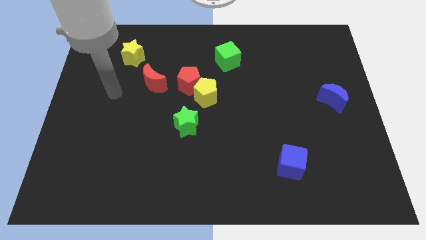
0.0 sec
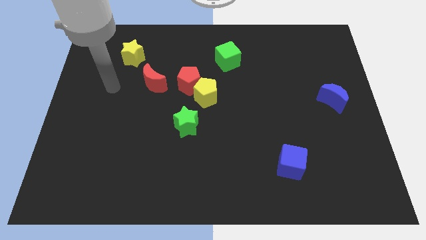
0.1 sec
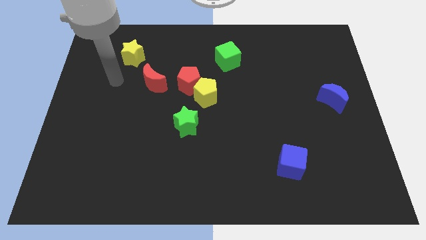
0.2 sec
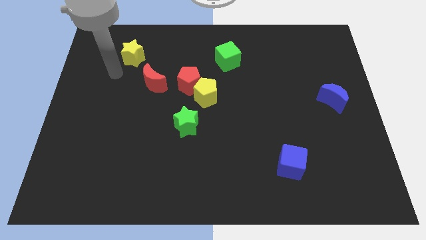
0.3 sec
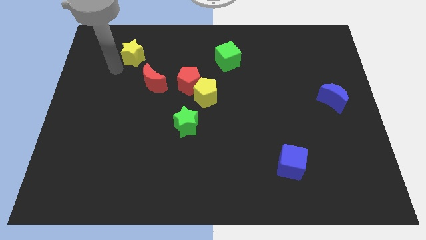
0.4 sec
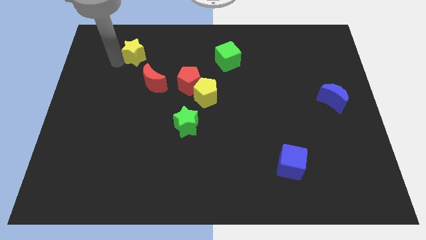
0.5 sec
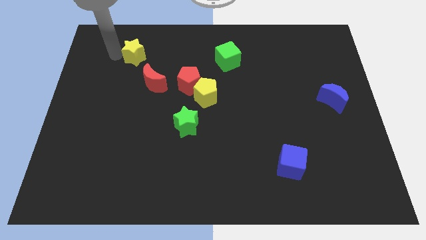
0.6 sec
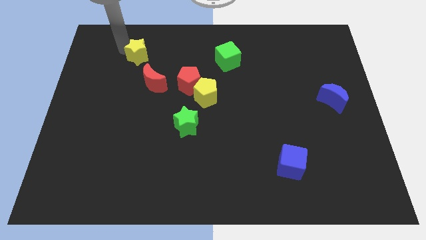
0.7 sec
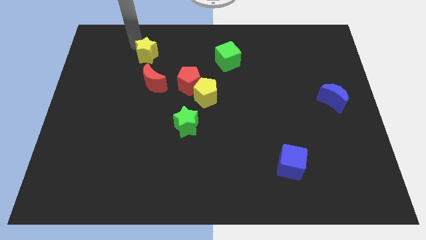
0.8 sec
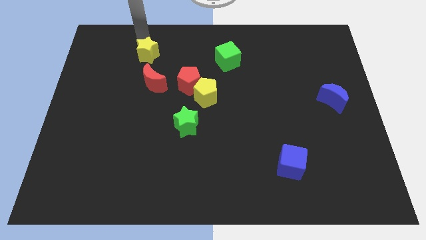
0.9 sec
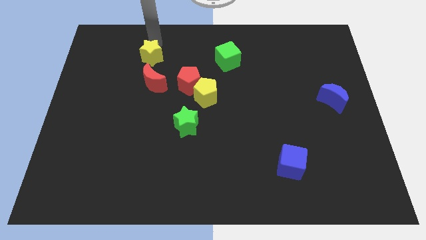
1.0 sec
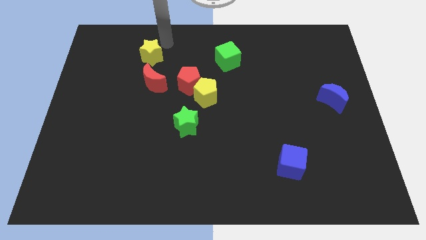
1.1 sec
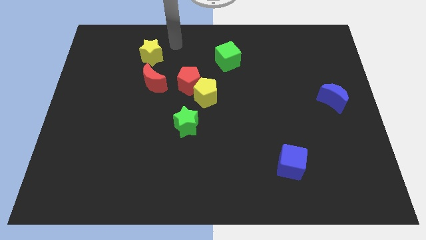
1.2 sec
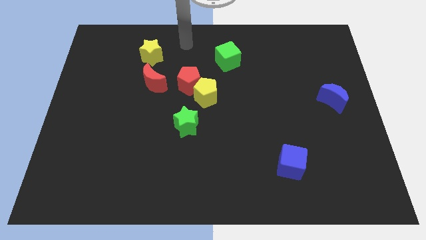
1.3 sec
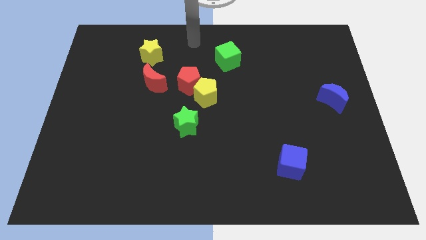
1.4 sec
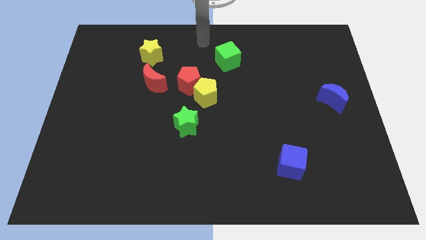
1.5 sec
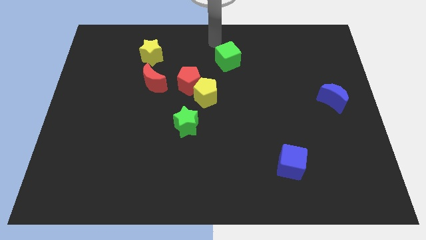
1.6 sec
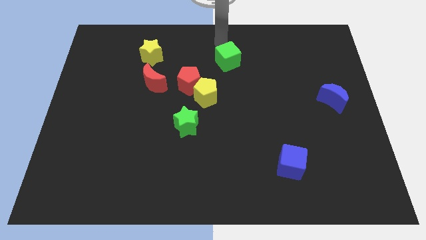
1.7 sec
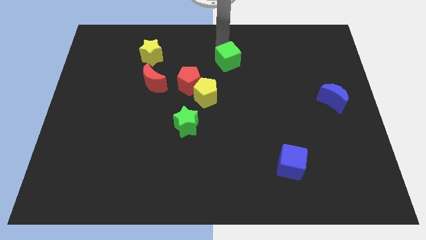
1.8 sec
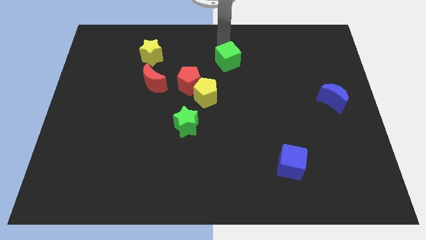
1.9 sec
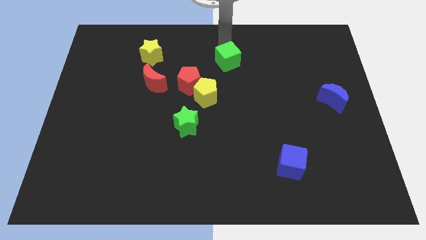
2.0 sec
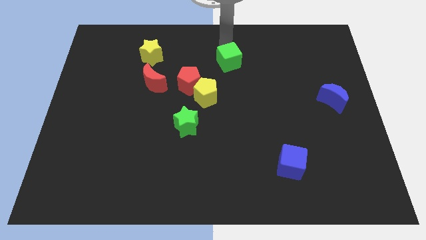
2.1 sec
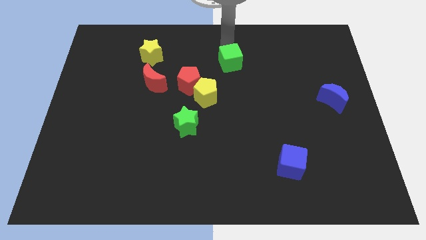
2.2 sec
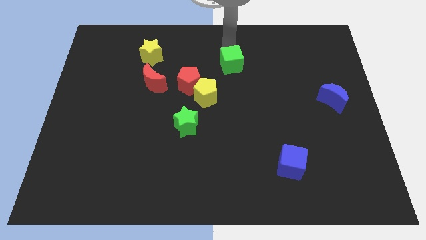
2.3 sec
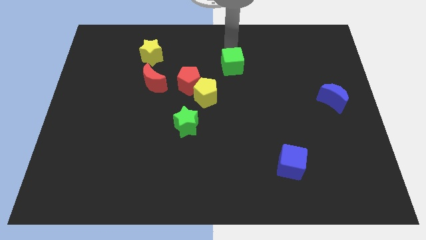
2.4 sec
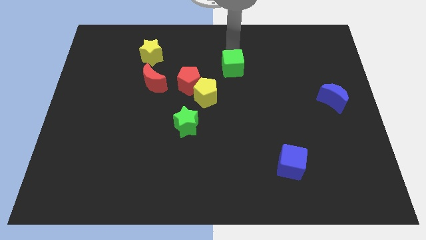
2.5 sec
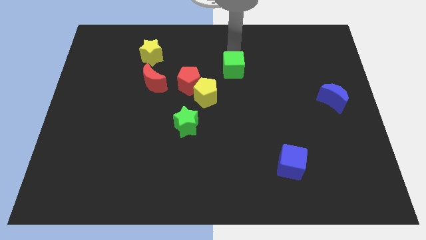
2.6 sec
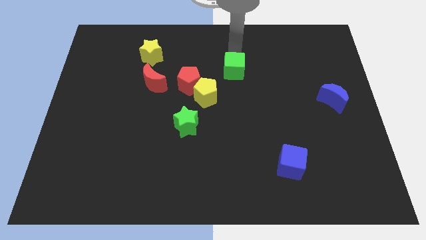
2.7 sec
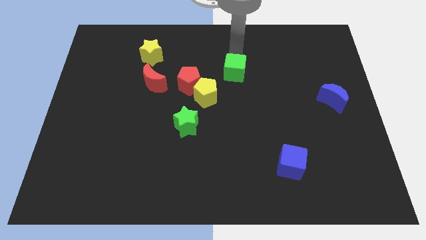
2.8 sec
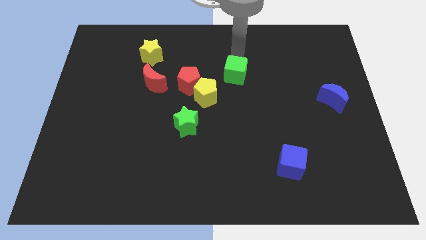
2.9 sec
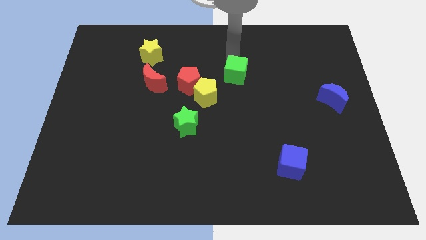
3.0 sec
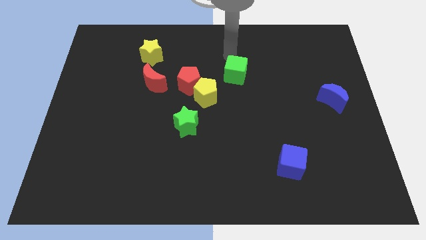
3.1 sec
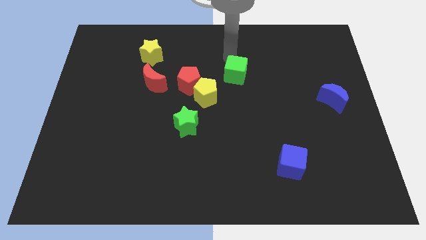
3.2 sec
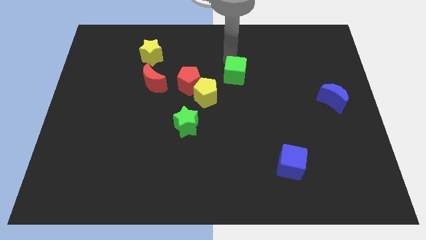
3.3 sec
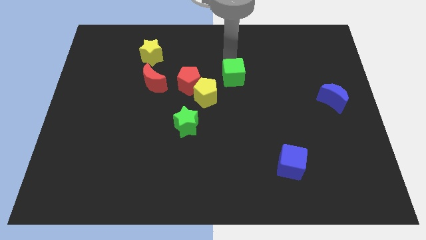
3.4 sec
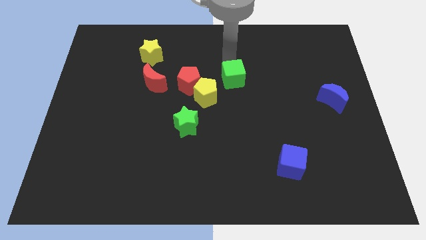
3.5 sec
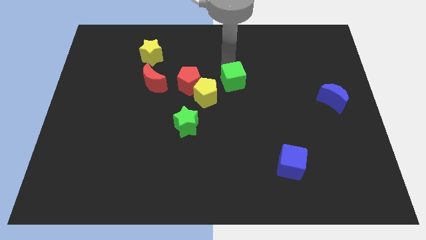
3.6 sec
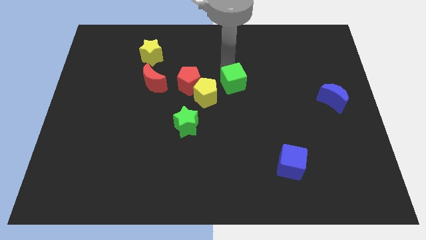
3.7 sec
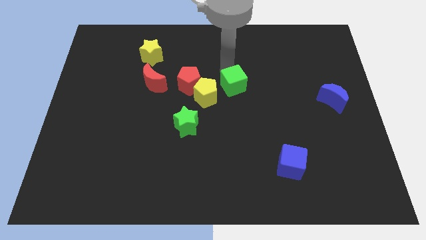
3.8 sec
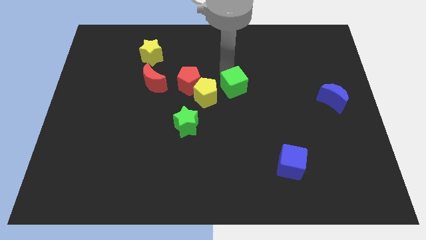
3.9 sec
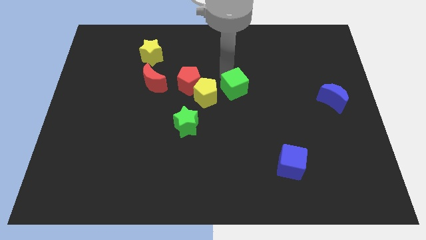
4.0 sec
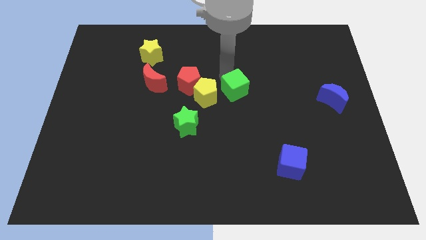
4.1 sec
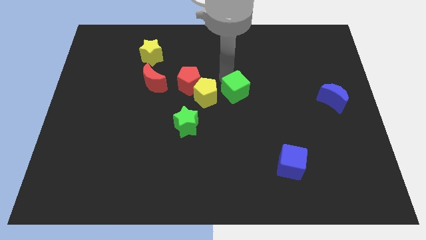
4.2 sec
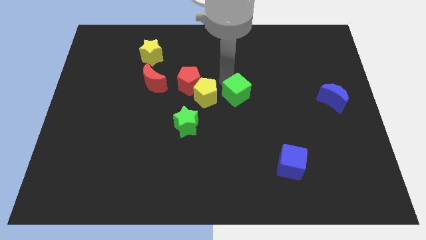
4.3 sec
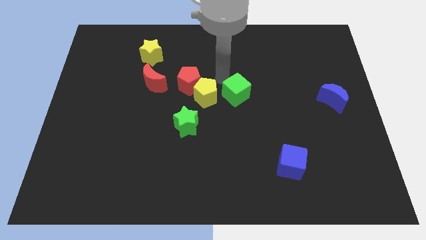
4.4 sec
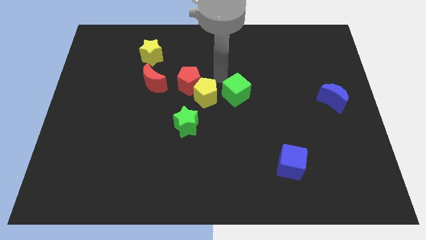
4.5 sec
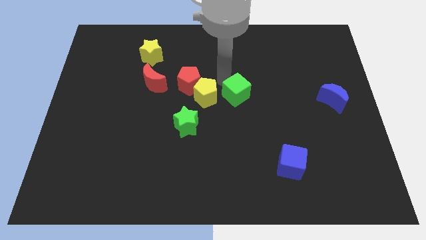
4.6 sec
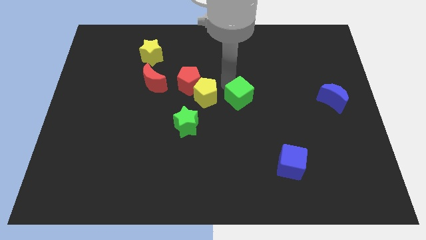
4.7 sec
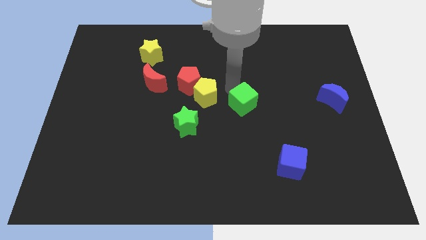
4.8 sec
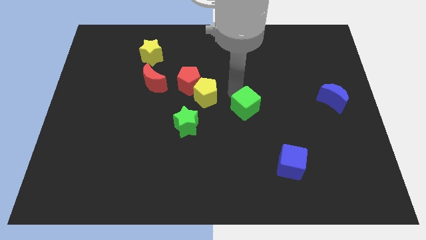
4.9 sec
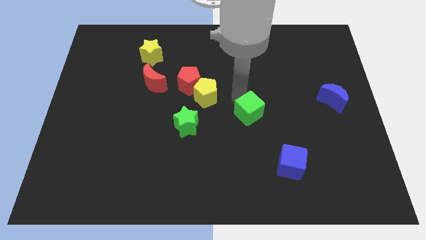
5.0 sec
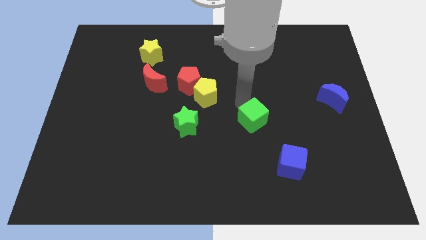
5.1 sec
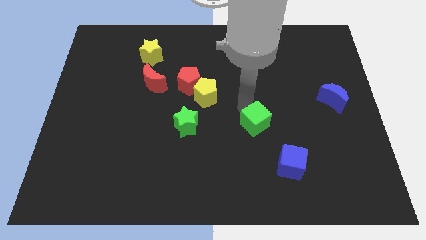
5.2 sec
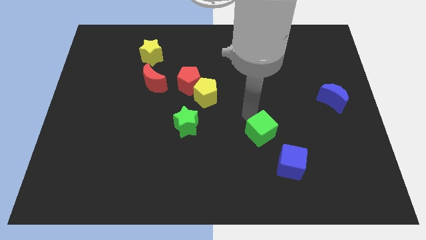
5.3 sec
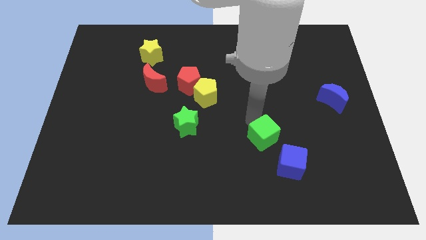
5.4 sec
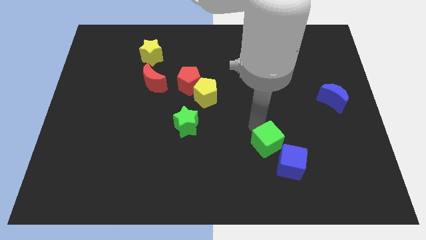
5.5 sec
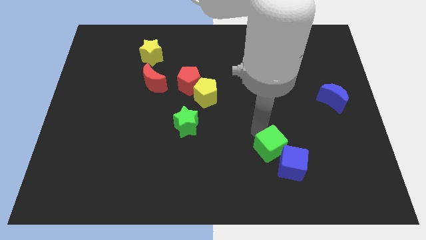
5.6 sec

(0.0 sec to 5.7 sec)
push the green cube close to the blue cube

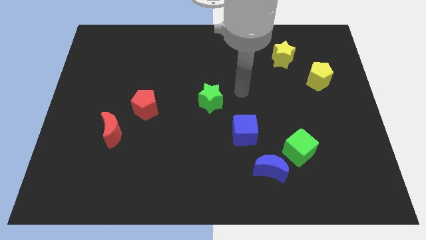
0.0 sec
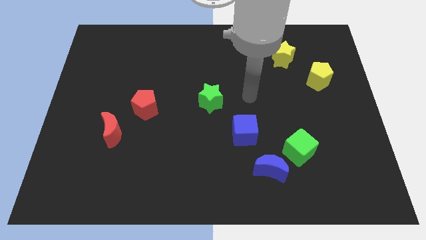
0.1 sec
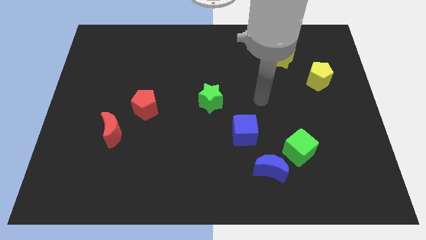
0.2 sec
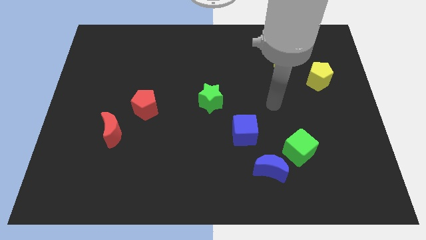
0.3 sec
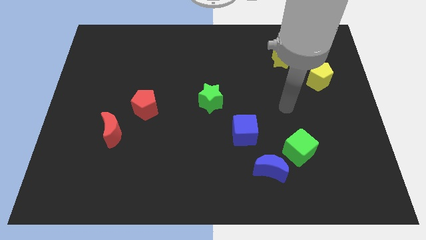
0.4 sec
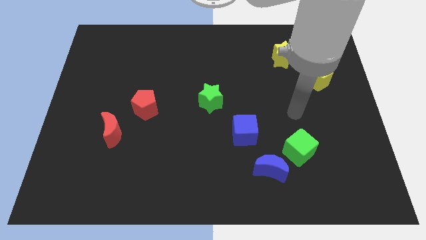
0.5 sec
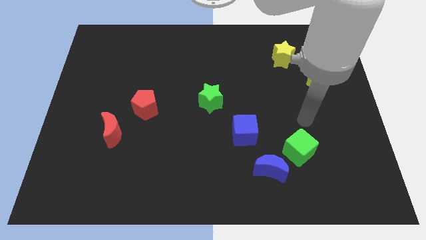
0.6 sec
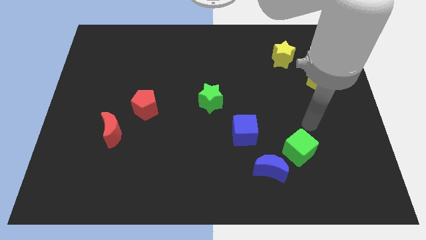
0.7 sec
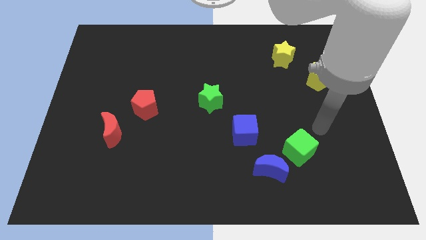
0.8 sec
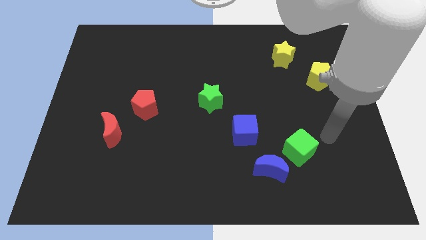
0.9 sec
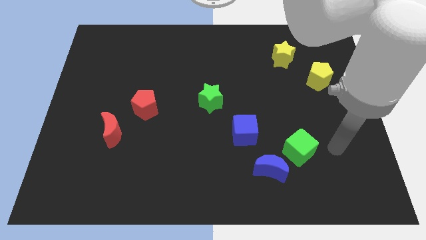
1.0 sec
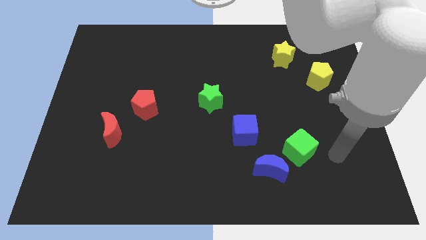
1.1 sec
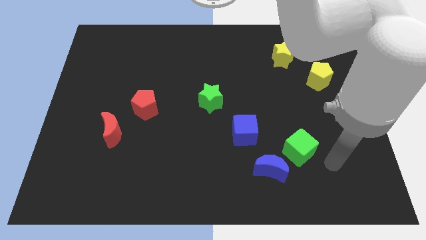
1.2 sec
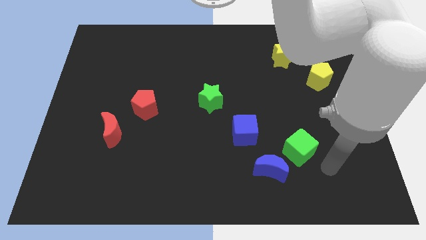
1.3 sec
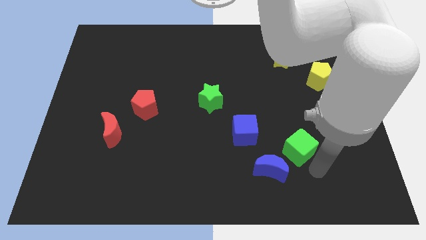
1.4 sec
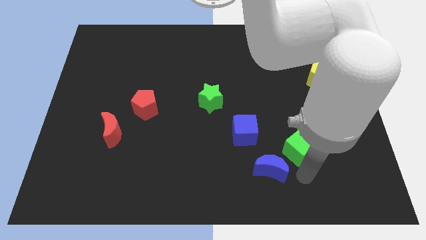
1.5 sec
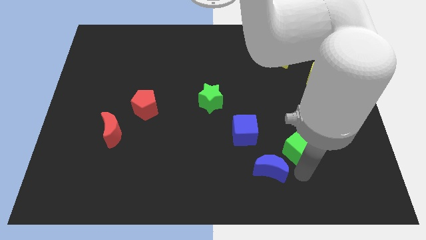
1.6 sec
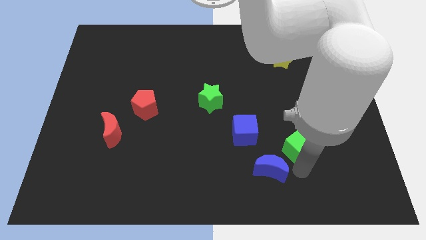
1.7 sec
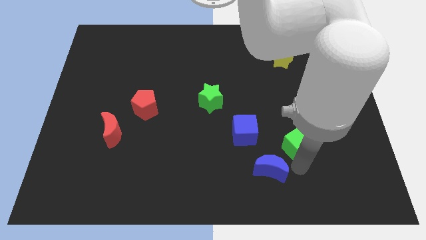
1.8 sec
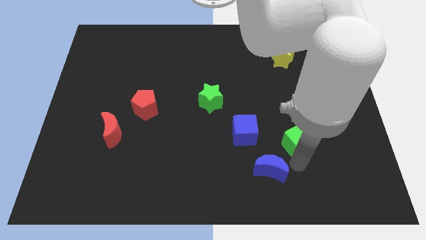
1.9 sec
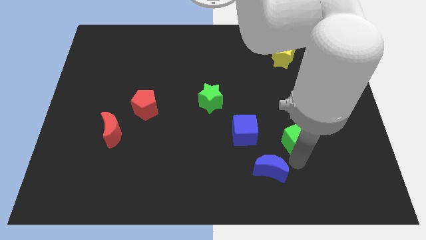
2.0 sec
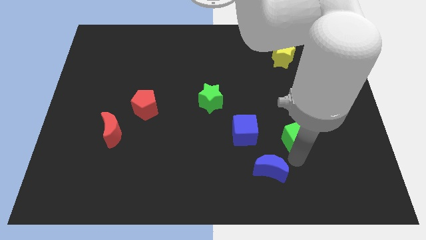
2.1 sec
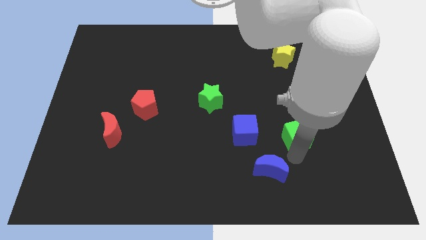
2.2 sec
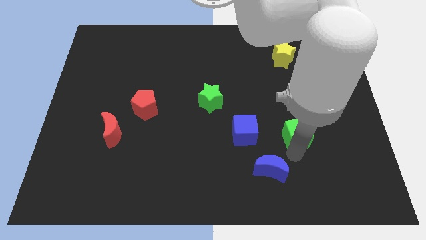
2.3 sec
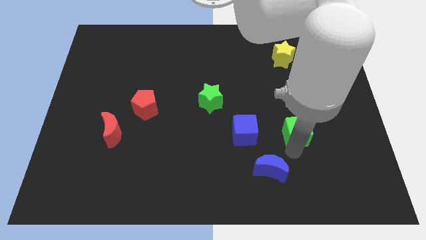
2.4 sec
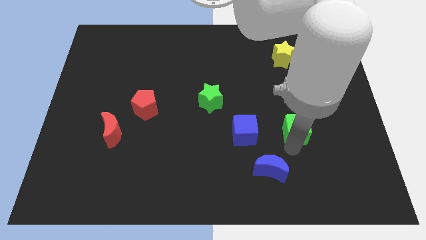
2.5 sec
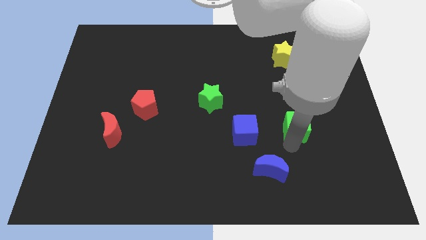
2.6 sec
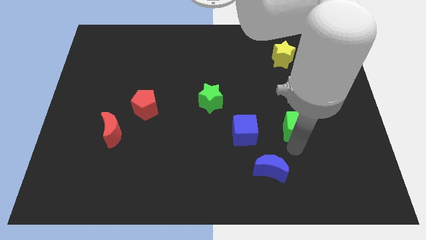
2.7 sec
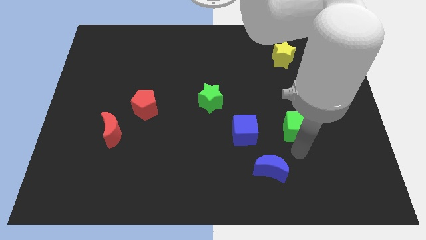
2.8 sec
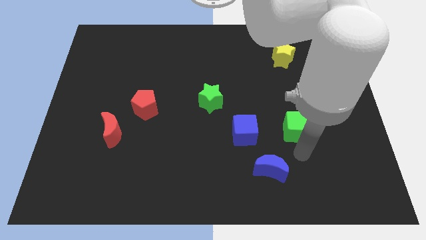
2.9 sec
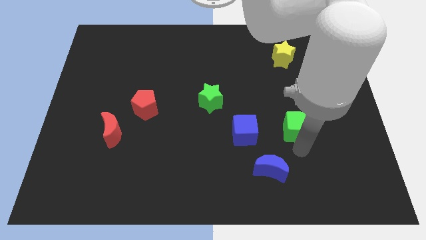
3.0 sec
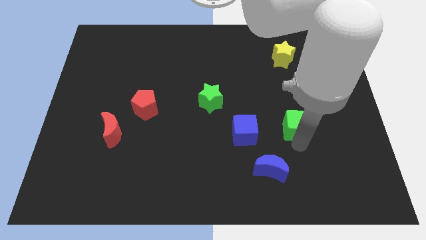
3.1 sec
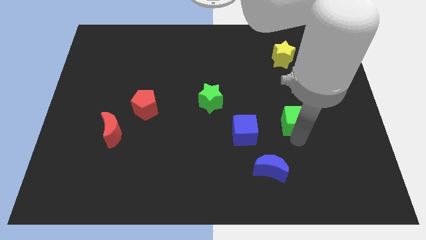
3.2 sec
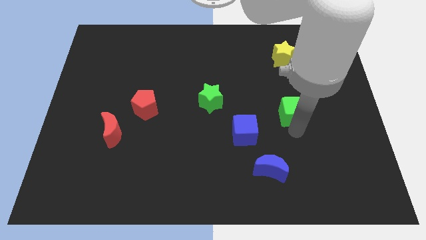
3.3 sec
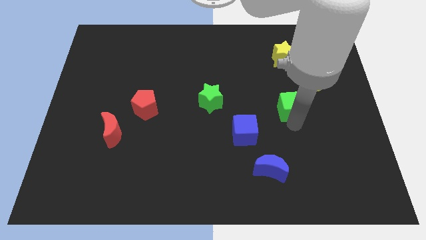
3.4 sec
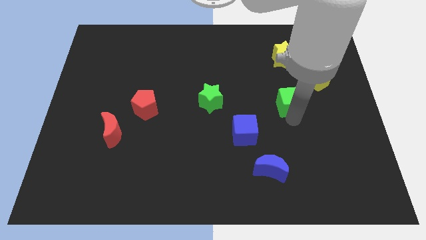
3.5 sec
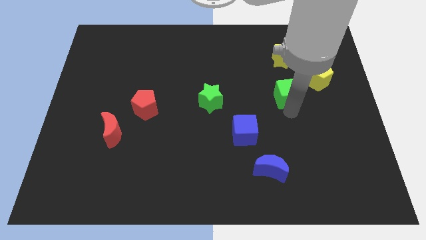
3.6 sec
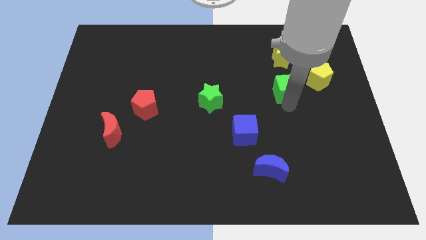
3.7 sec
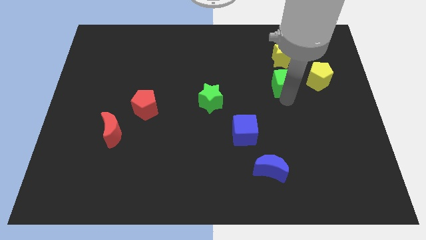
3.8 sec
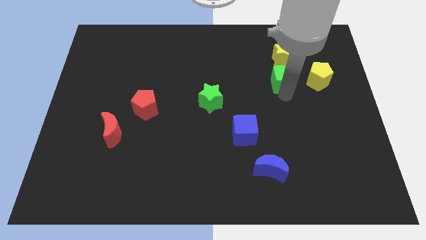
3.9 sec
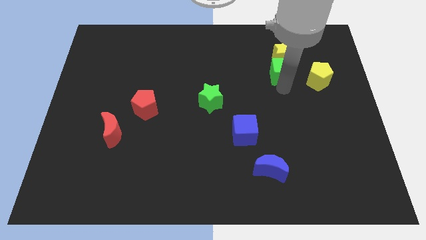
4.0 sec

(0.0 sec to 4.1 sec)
move the green cube next to the yellow star
